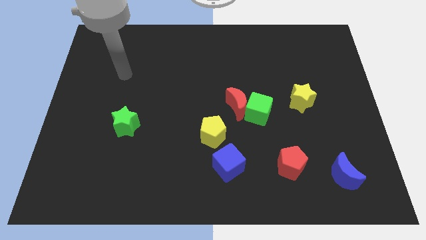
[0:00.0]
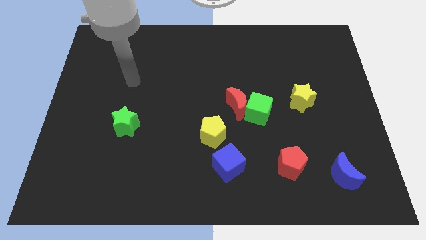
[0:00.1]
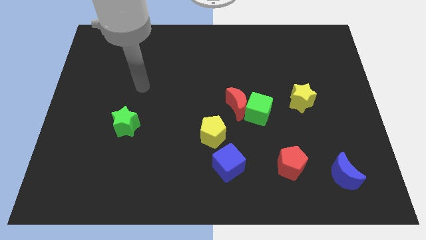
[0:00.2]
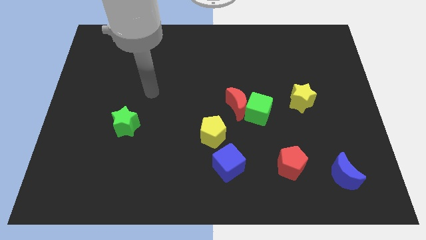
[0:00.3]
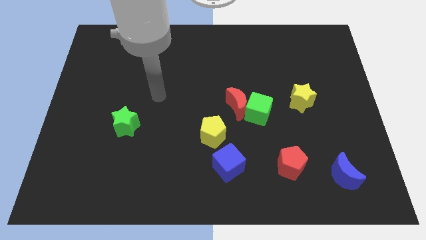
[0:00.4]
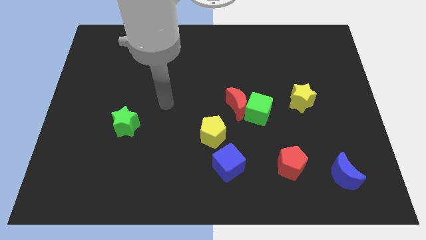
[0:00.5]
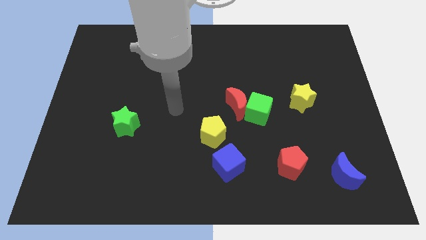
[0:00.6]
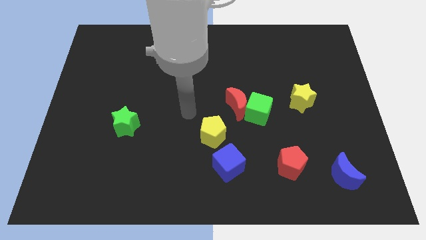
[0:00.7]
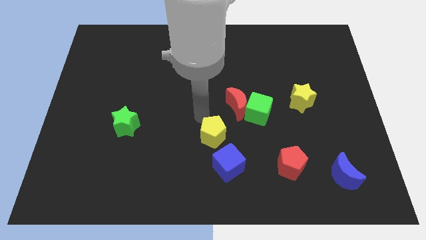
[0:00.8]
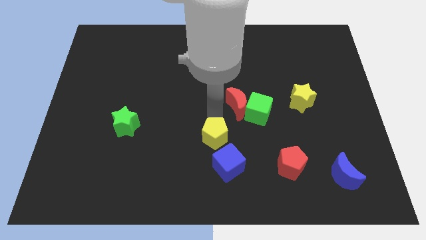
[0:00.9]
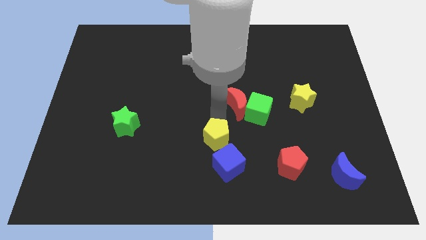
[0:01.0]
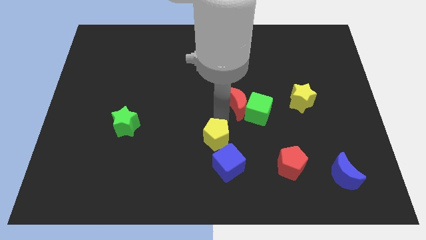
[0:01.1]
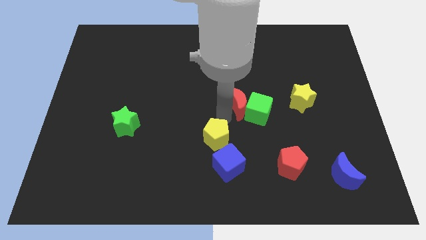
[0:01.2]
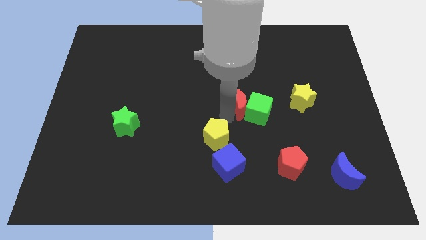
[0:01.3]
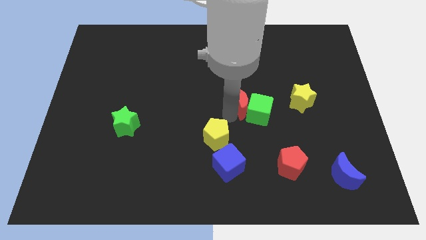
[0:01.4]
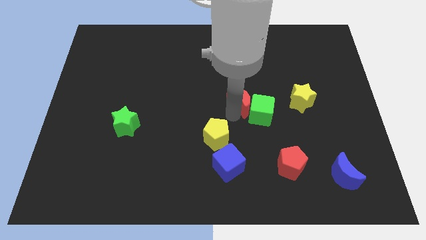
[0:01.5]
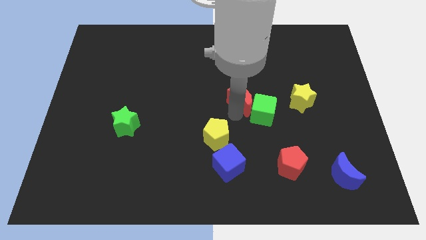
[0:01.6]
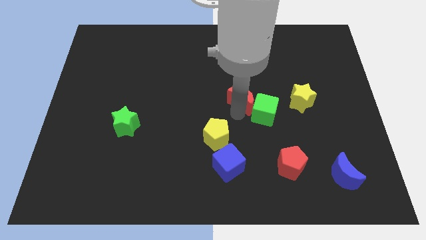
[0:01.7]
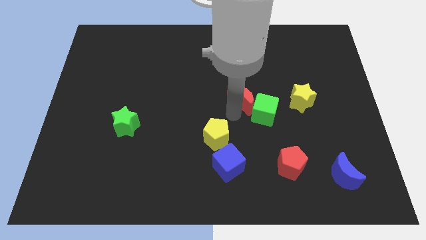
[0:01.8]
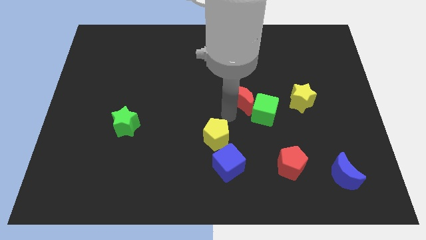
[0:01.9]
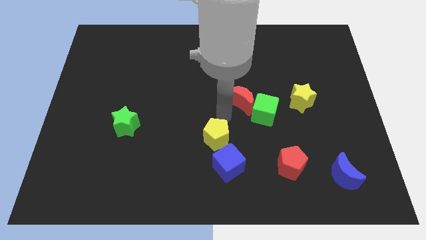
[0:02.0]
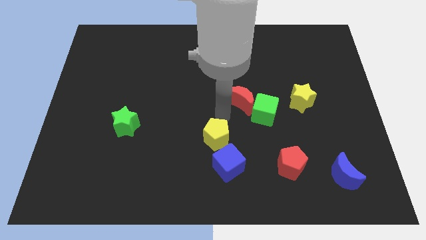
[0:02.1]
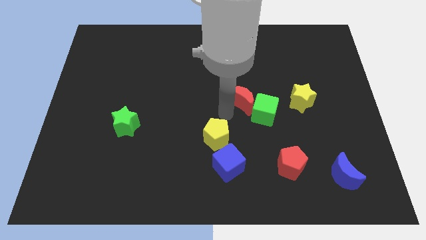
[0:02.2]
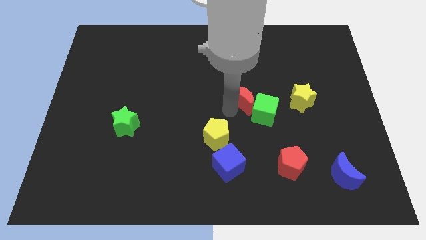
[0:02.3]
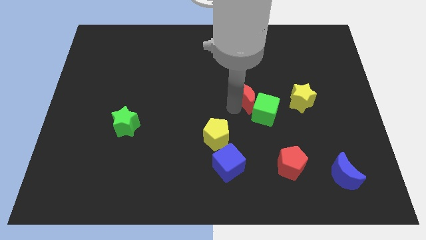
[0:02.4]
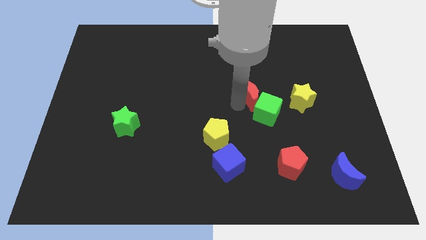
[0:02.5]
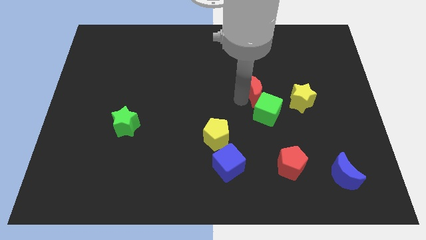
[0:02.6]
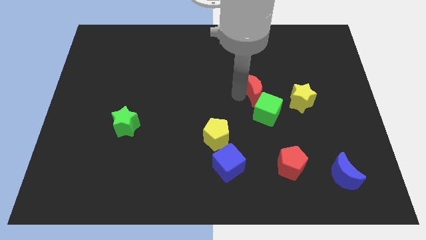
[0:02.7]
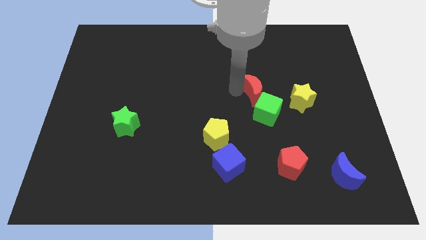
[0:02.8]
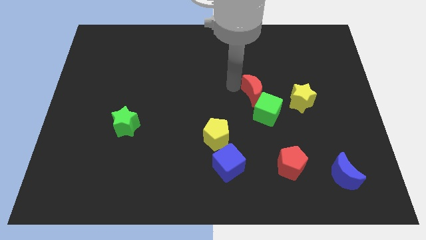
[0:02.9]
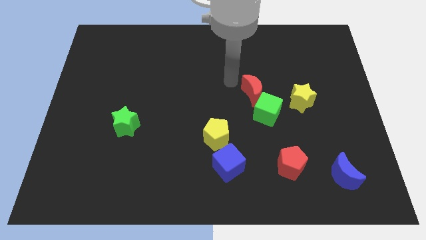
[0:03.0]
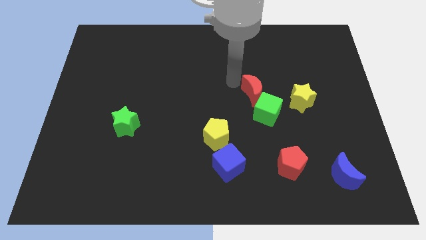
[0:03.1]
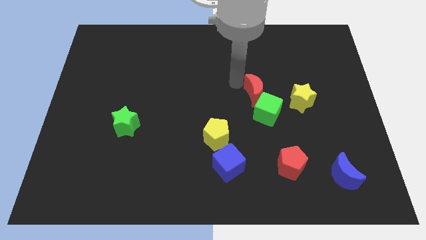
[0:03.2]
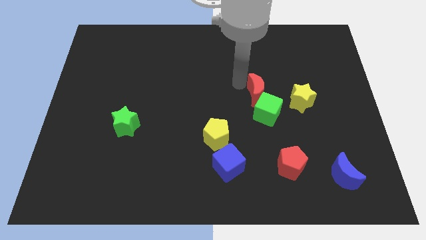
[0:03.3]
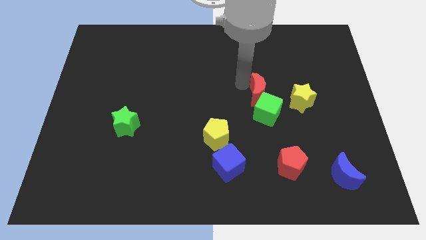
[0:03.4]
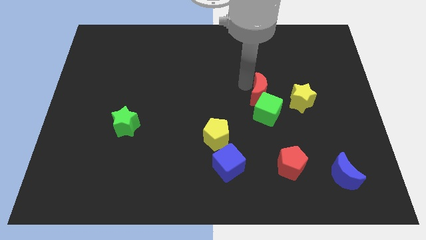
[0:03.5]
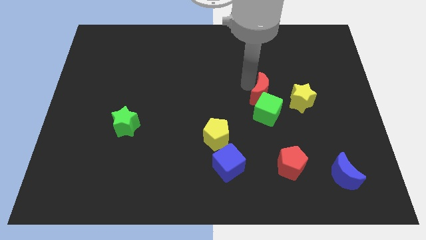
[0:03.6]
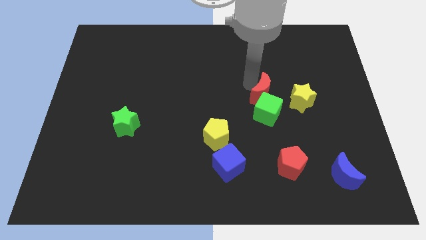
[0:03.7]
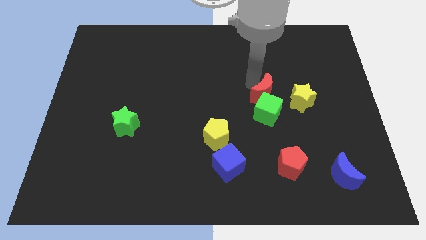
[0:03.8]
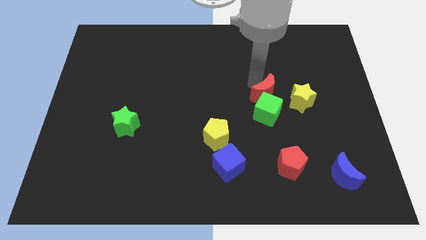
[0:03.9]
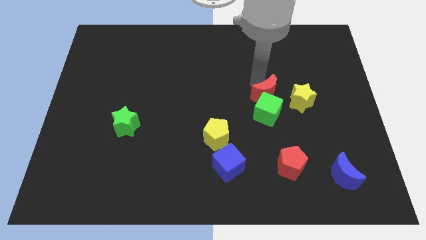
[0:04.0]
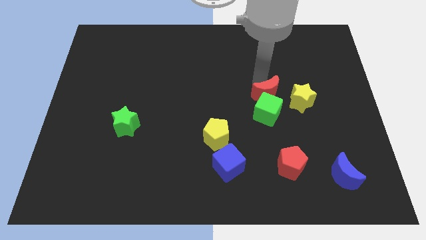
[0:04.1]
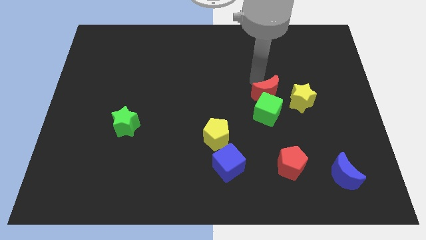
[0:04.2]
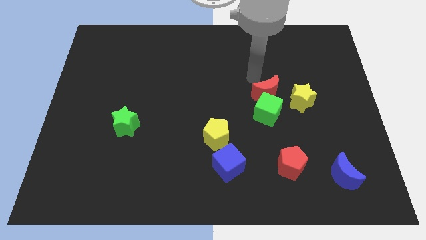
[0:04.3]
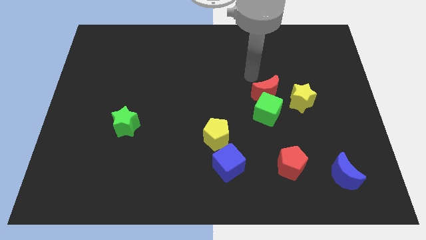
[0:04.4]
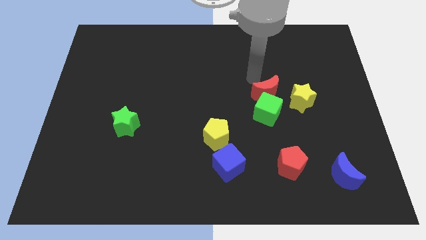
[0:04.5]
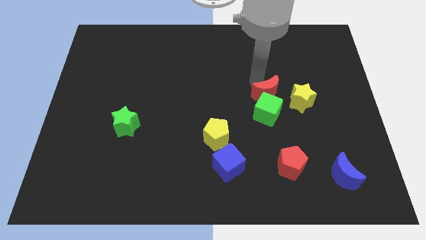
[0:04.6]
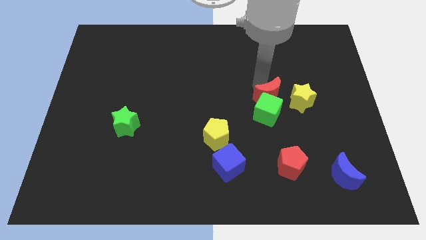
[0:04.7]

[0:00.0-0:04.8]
push the red moon to the right a bit

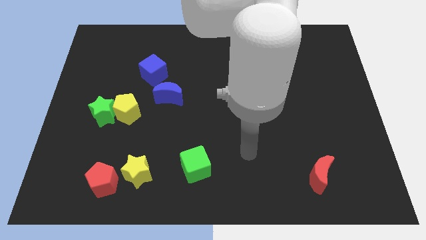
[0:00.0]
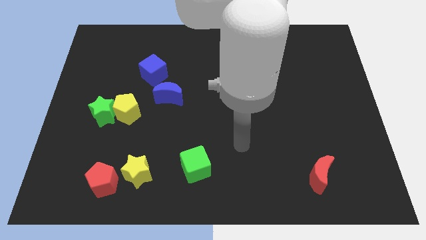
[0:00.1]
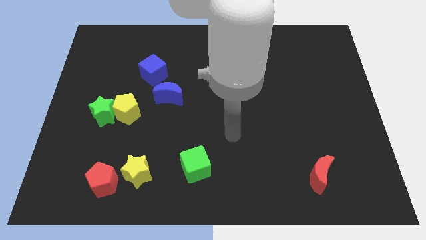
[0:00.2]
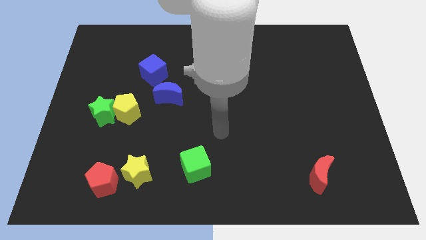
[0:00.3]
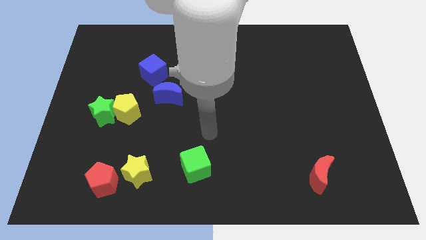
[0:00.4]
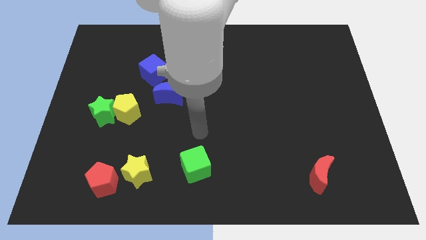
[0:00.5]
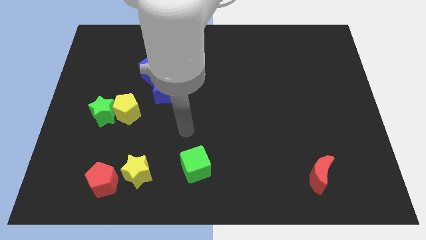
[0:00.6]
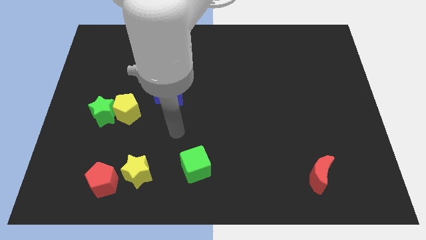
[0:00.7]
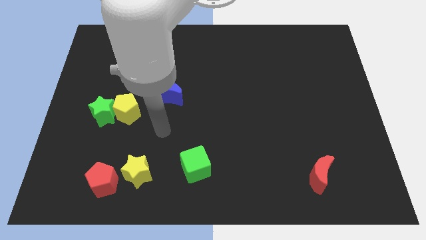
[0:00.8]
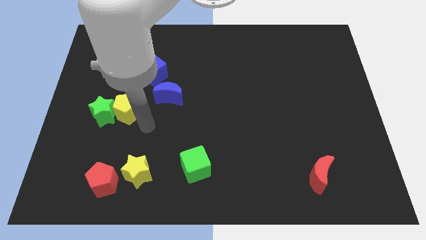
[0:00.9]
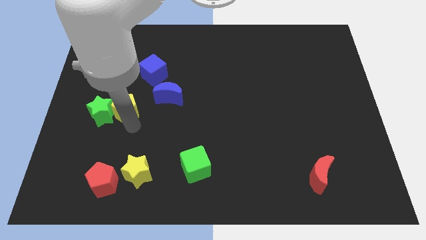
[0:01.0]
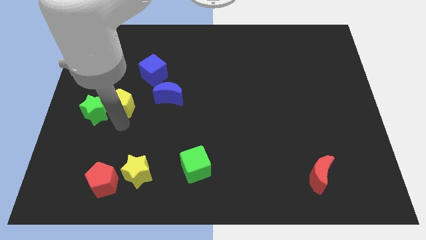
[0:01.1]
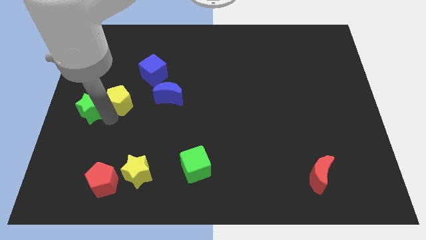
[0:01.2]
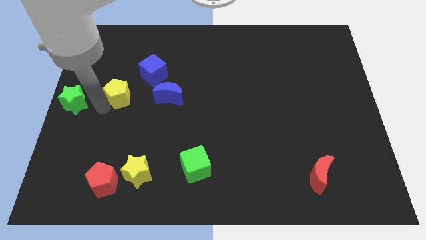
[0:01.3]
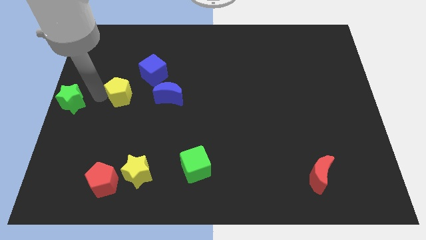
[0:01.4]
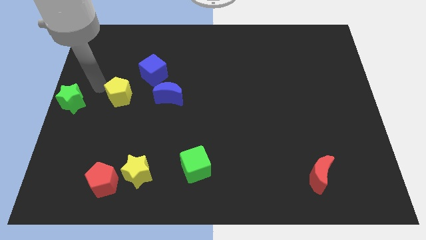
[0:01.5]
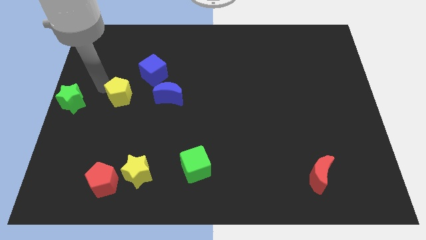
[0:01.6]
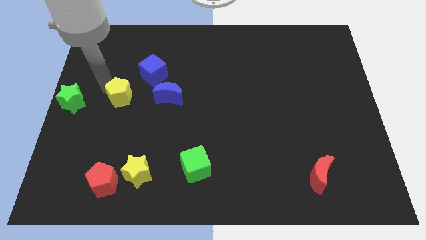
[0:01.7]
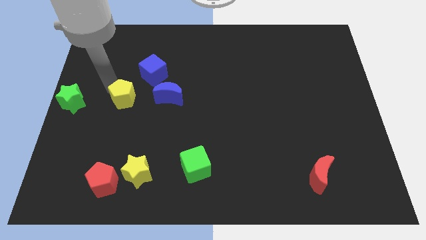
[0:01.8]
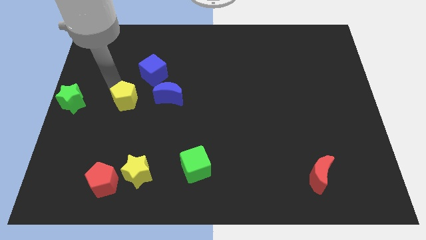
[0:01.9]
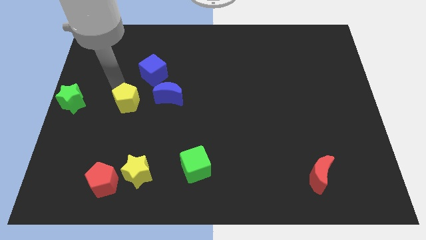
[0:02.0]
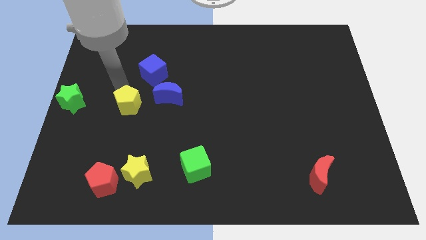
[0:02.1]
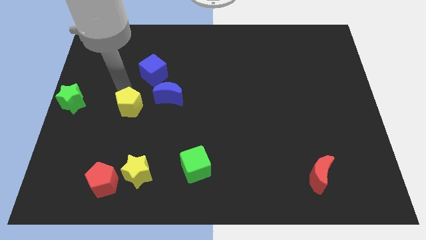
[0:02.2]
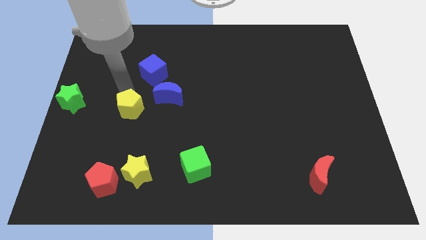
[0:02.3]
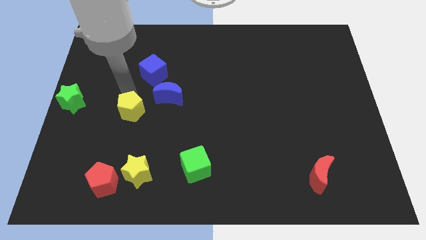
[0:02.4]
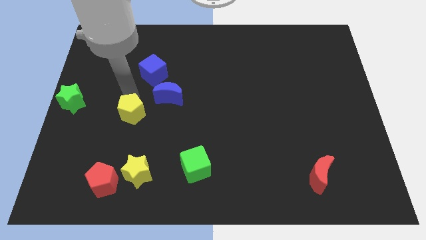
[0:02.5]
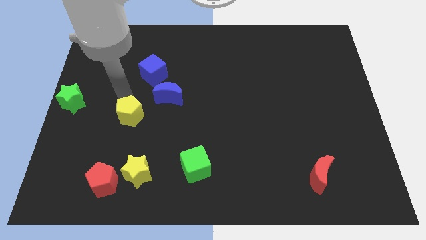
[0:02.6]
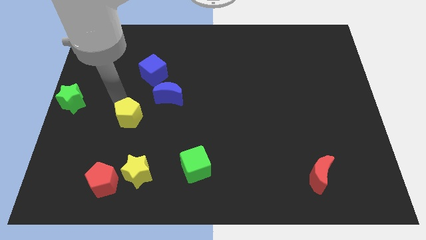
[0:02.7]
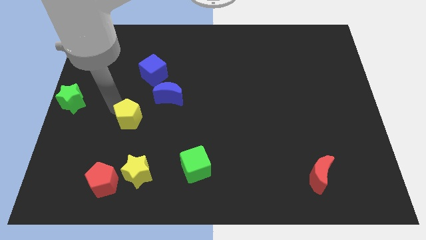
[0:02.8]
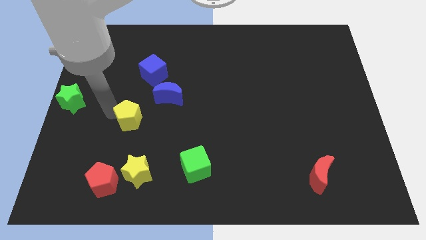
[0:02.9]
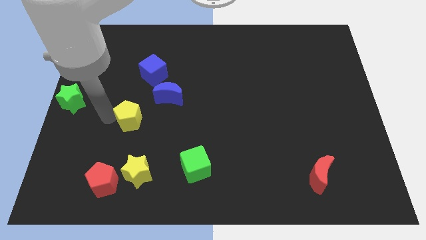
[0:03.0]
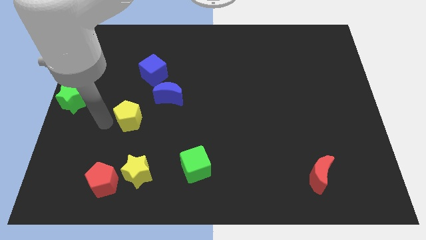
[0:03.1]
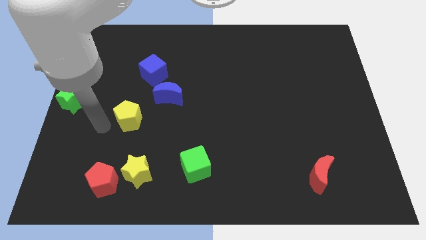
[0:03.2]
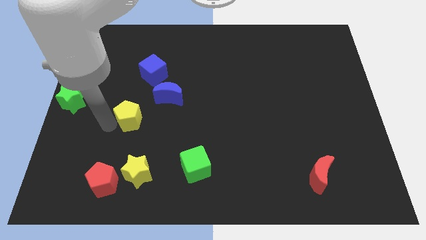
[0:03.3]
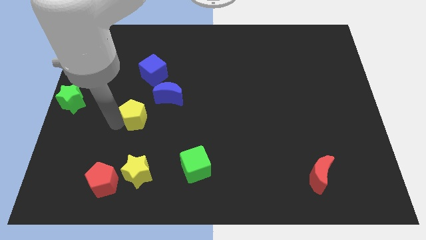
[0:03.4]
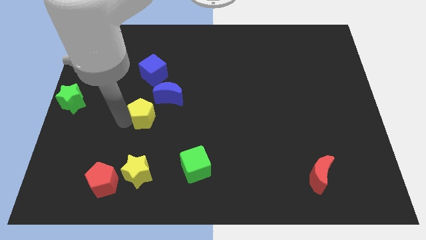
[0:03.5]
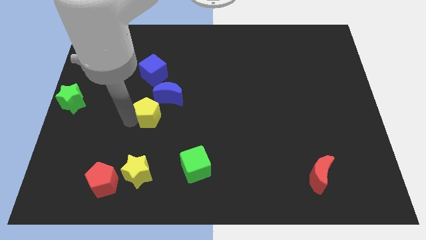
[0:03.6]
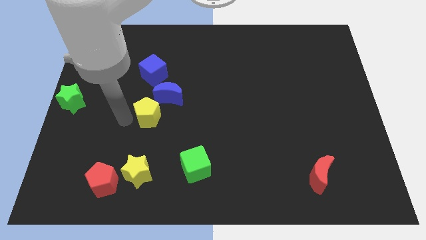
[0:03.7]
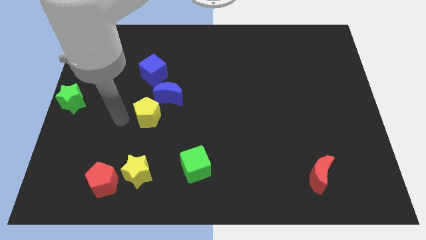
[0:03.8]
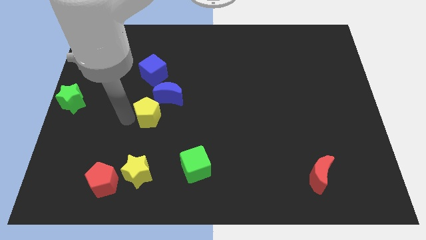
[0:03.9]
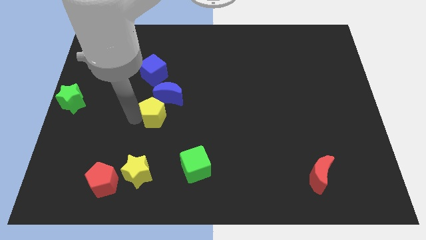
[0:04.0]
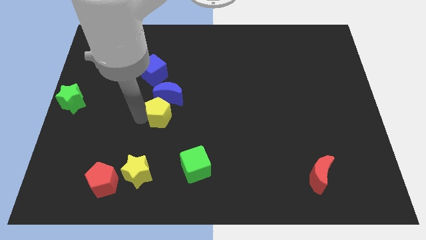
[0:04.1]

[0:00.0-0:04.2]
slide the yellow pentagon a bit right
